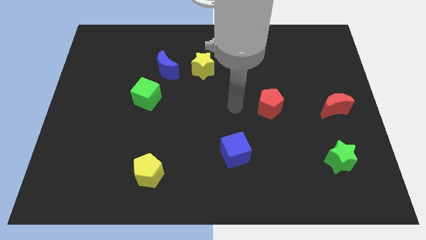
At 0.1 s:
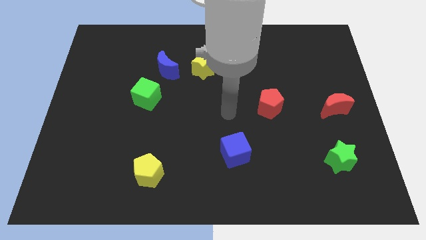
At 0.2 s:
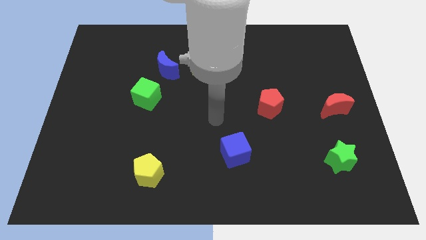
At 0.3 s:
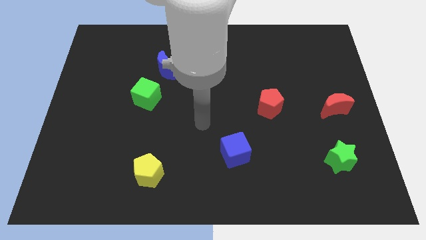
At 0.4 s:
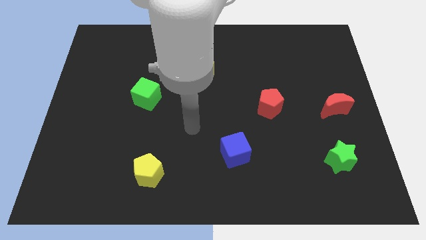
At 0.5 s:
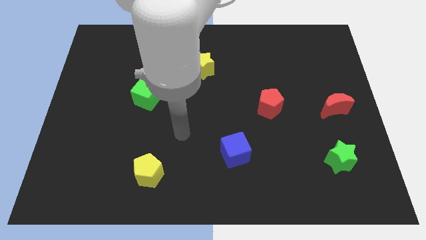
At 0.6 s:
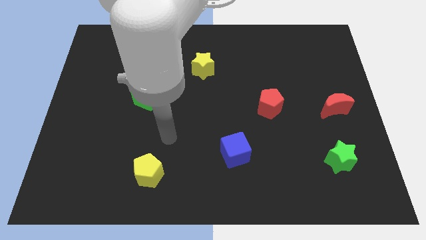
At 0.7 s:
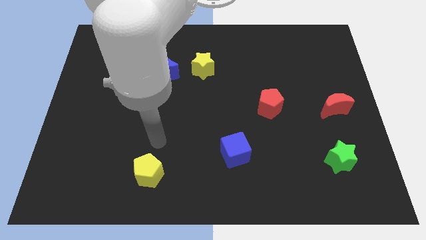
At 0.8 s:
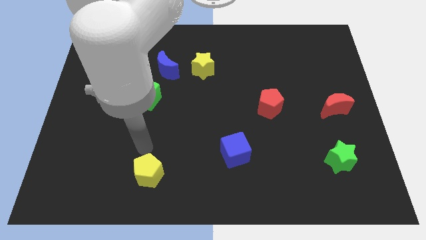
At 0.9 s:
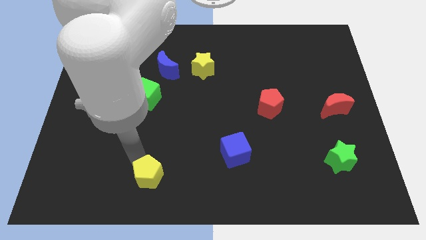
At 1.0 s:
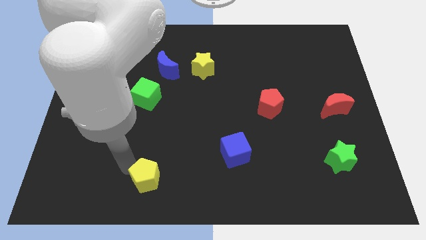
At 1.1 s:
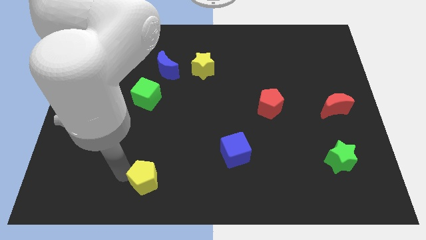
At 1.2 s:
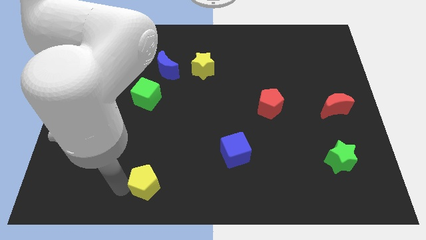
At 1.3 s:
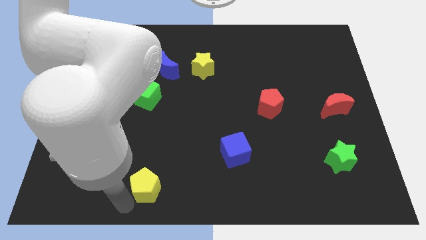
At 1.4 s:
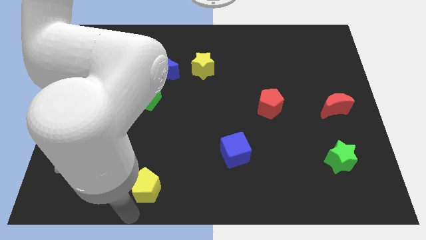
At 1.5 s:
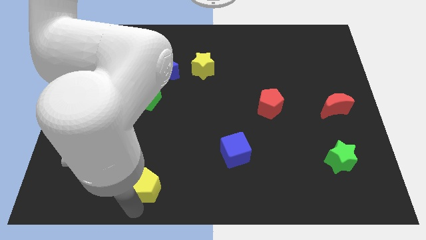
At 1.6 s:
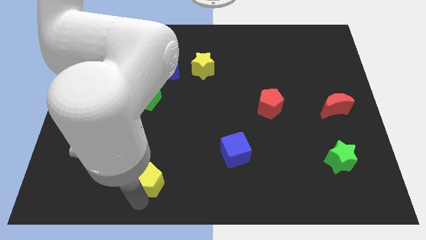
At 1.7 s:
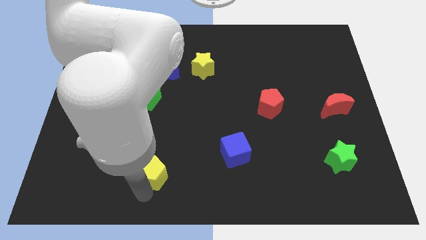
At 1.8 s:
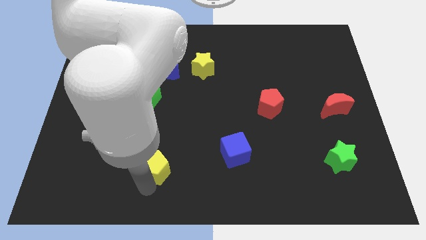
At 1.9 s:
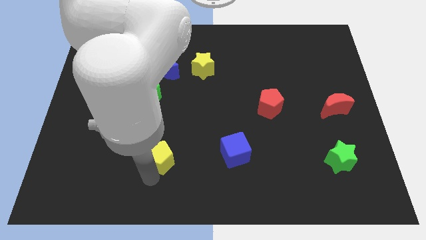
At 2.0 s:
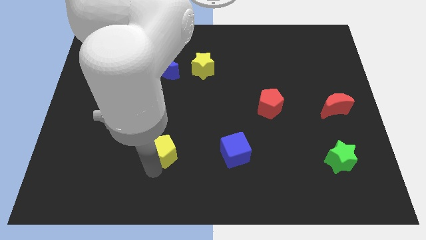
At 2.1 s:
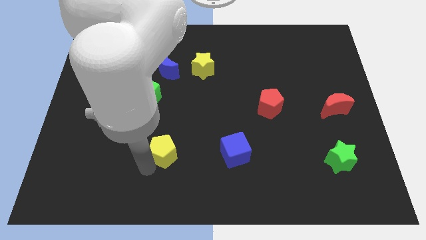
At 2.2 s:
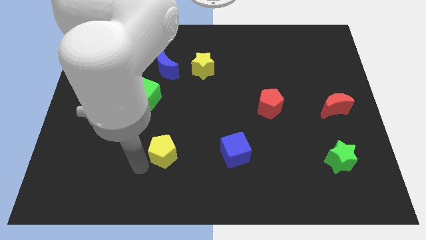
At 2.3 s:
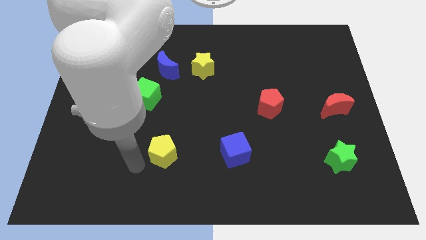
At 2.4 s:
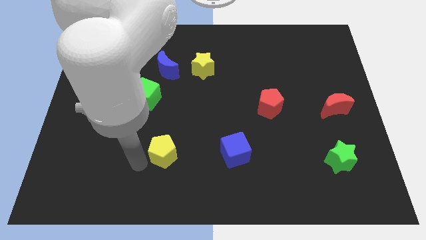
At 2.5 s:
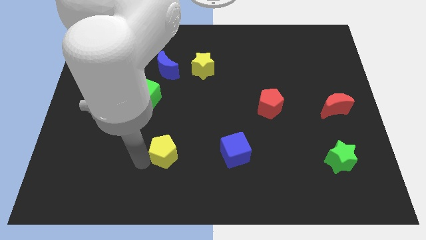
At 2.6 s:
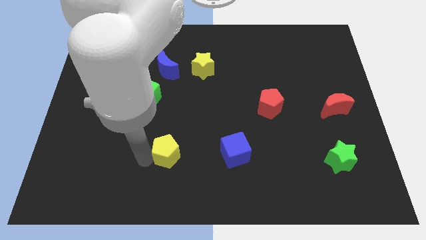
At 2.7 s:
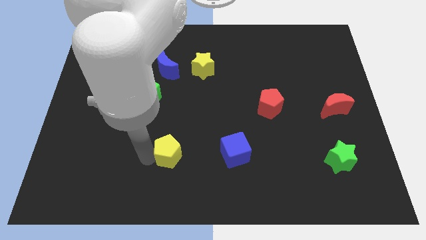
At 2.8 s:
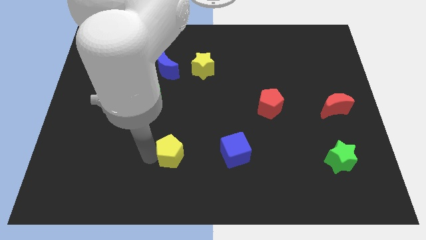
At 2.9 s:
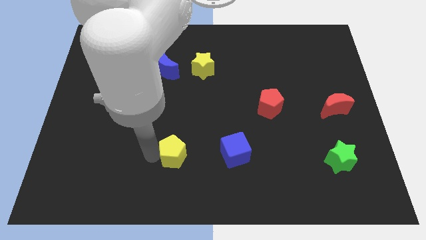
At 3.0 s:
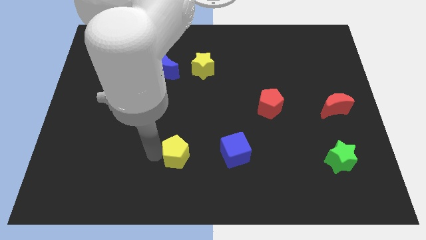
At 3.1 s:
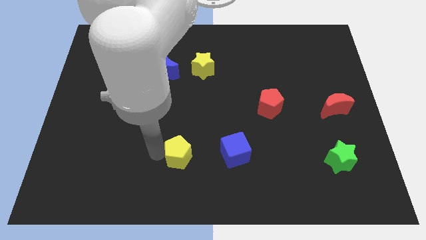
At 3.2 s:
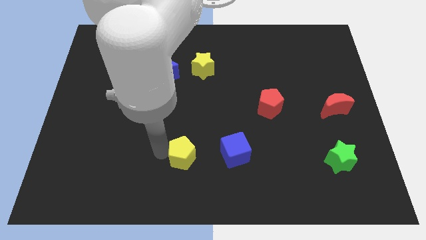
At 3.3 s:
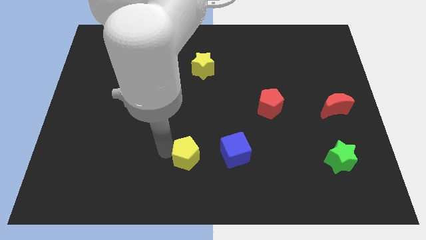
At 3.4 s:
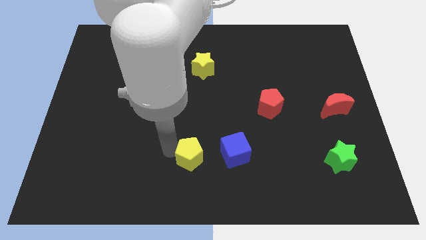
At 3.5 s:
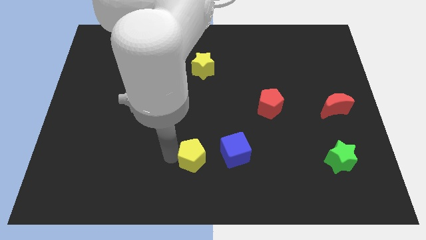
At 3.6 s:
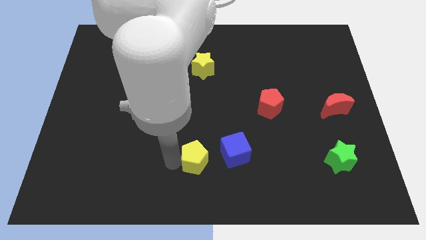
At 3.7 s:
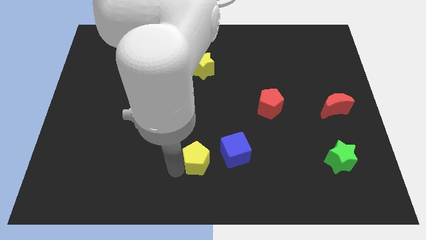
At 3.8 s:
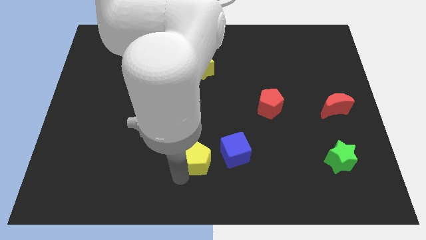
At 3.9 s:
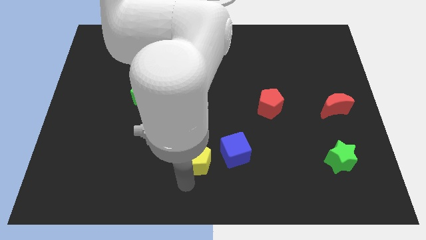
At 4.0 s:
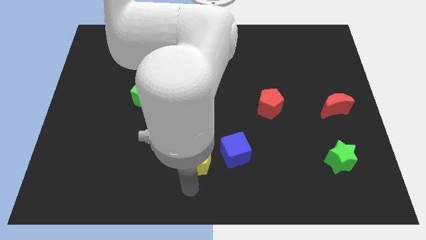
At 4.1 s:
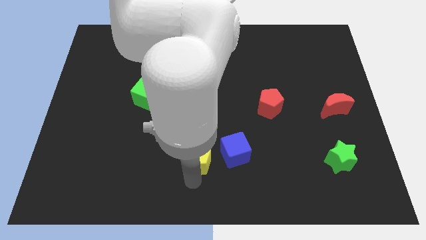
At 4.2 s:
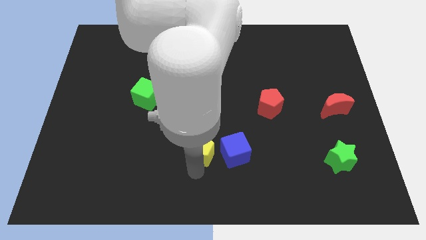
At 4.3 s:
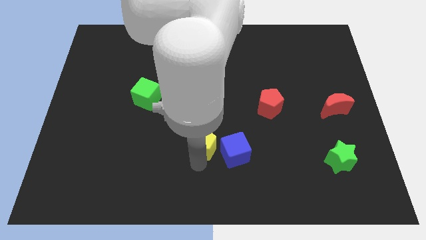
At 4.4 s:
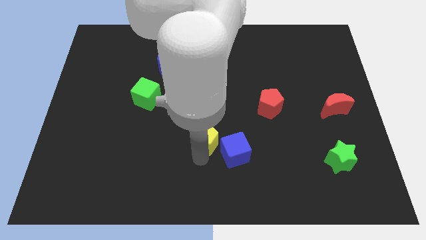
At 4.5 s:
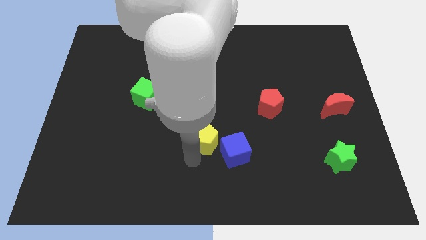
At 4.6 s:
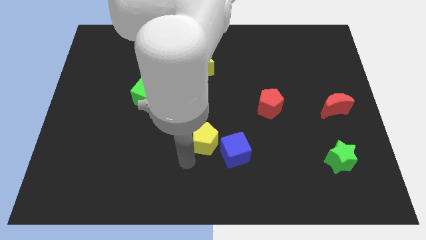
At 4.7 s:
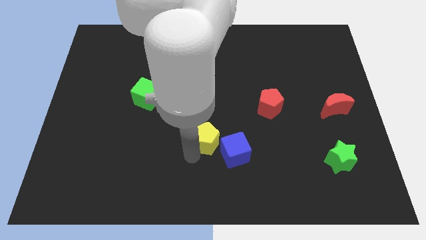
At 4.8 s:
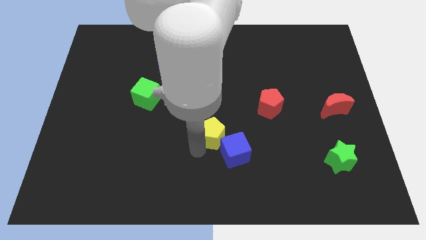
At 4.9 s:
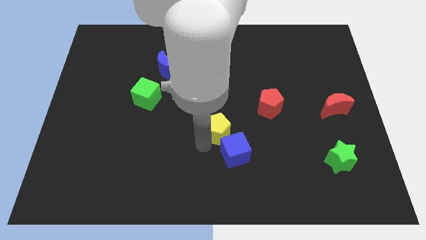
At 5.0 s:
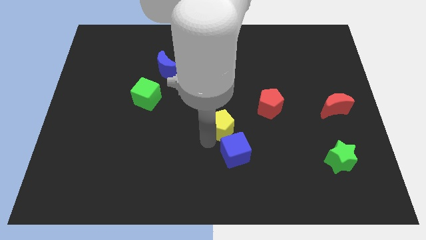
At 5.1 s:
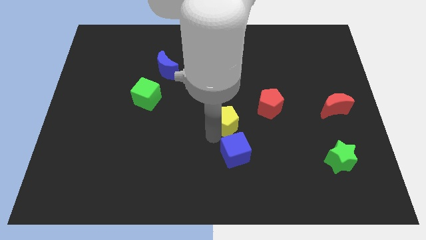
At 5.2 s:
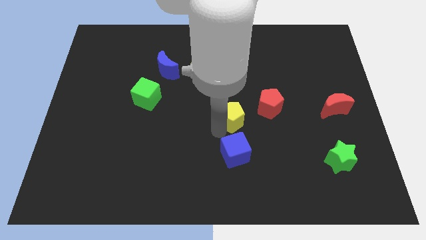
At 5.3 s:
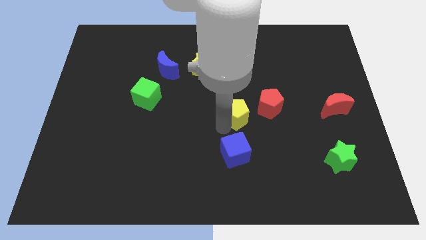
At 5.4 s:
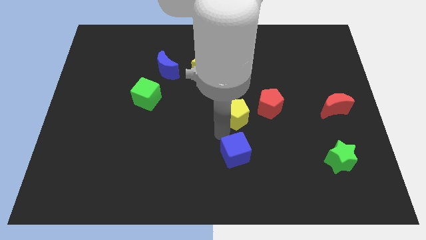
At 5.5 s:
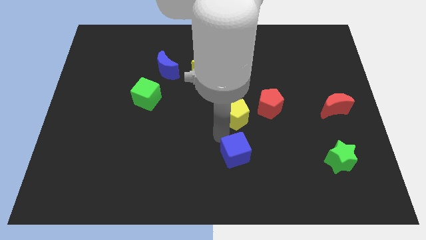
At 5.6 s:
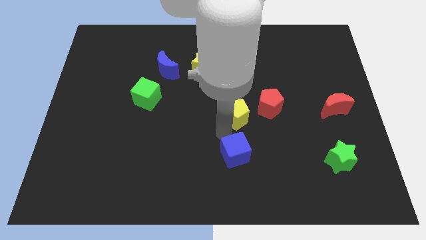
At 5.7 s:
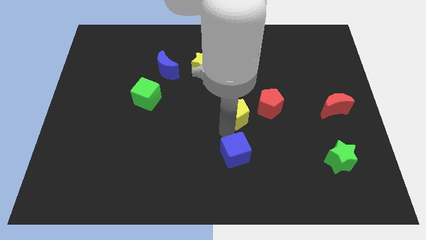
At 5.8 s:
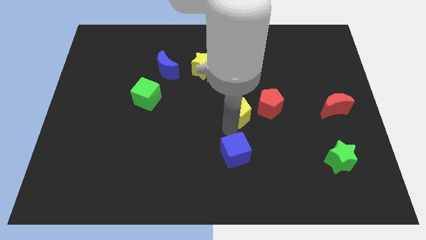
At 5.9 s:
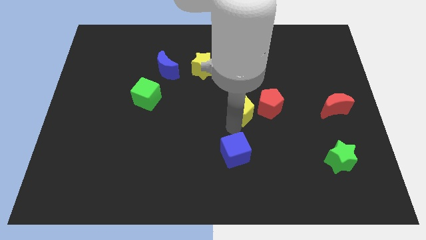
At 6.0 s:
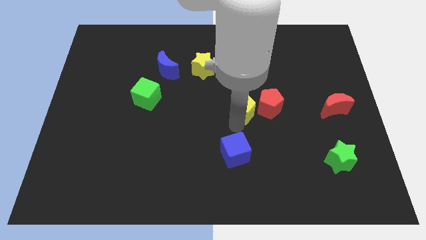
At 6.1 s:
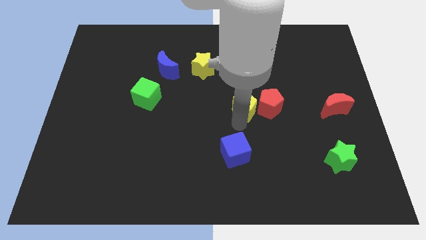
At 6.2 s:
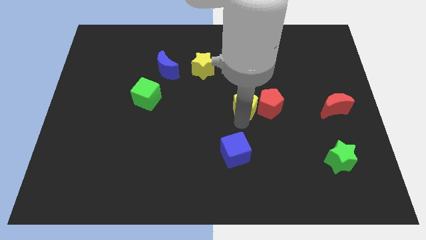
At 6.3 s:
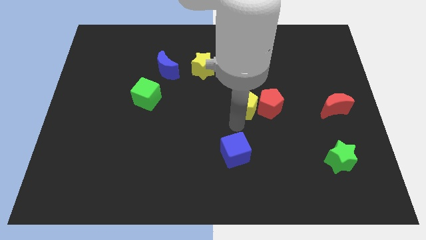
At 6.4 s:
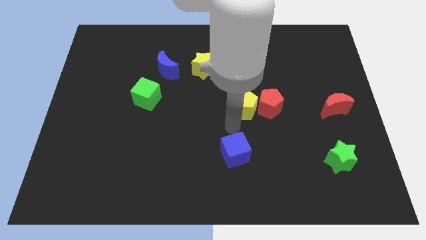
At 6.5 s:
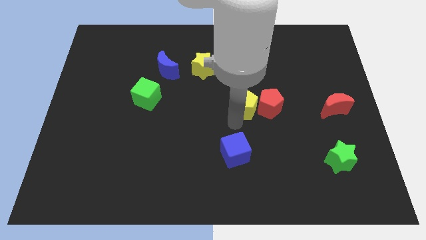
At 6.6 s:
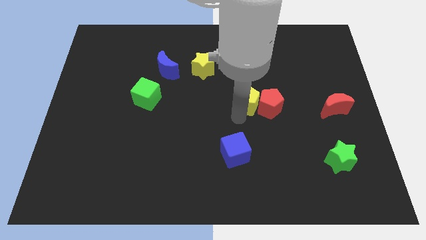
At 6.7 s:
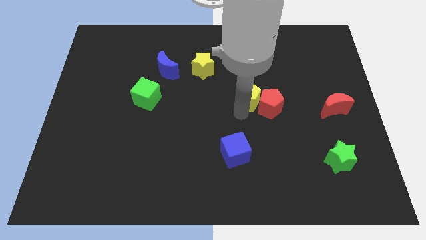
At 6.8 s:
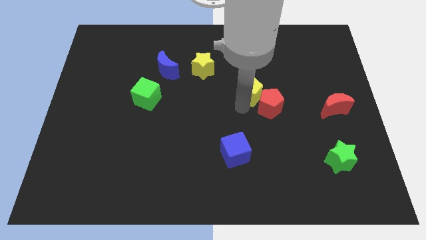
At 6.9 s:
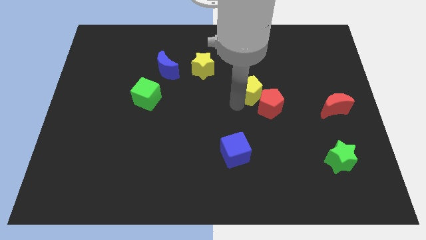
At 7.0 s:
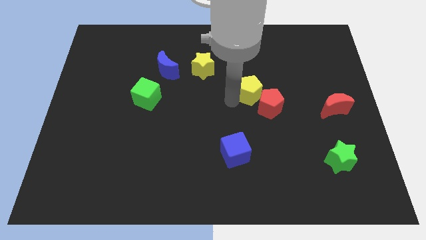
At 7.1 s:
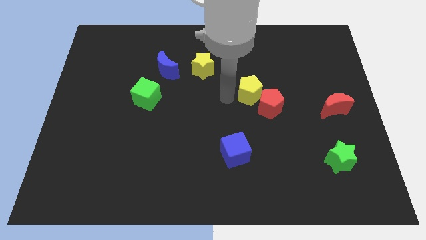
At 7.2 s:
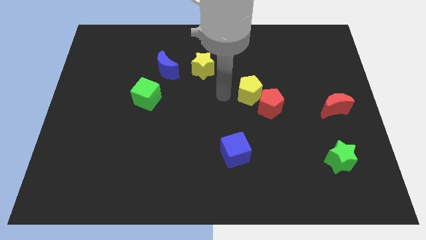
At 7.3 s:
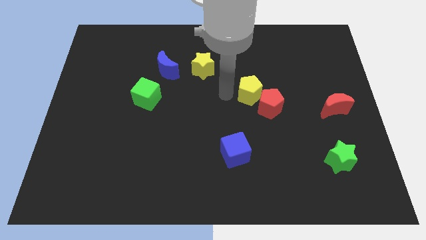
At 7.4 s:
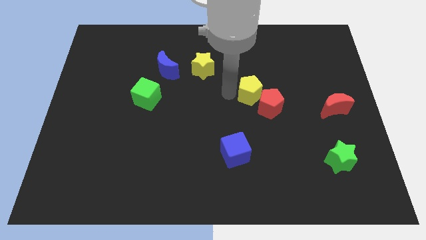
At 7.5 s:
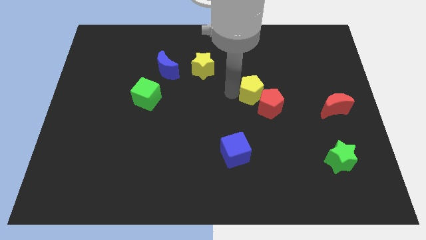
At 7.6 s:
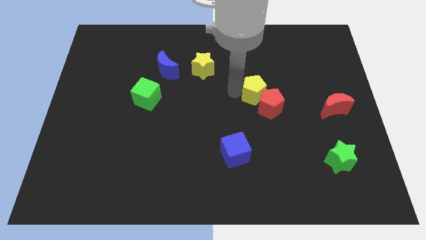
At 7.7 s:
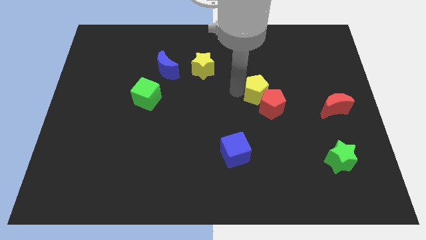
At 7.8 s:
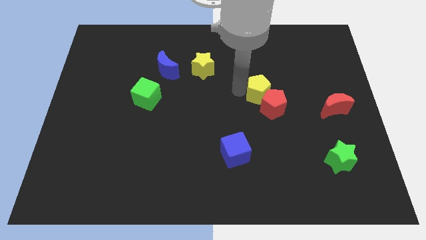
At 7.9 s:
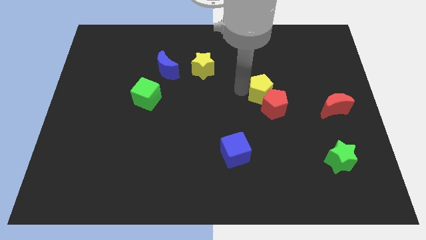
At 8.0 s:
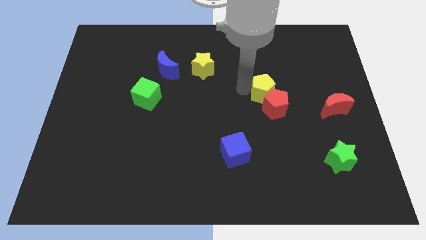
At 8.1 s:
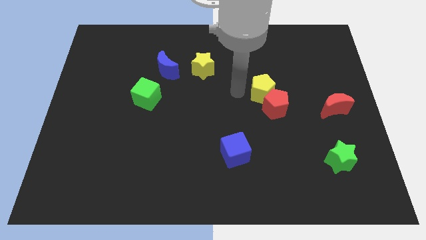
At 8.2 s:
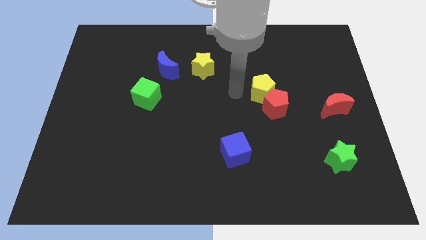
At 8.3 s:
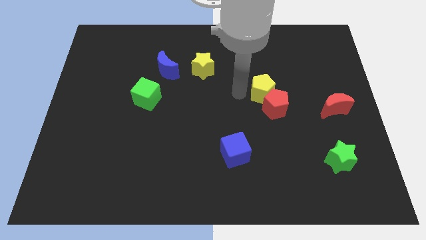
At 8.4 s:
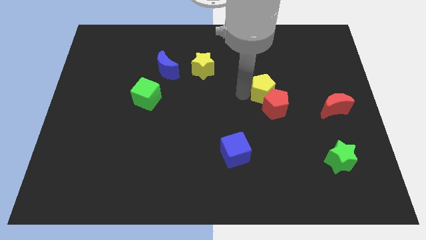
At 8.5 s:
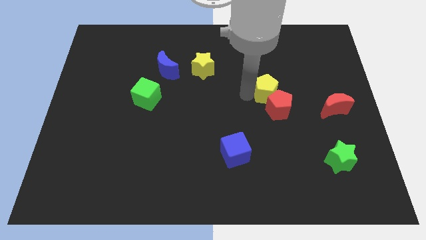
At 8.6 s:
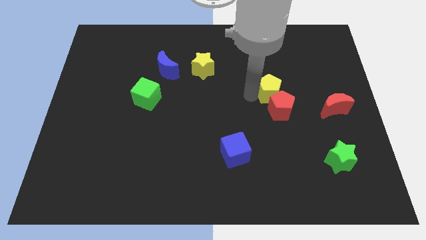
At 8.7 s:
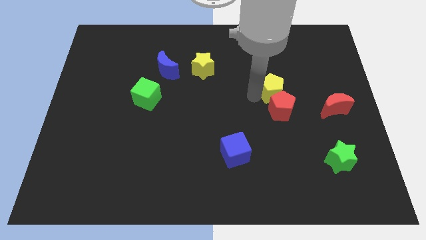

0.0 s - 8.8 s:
move the yellow pentagon to the top right of the red pentagon
